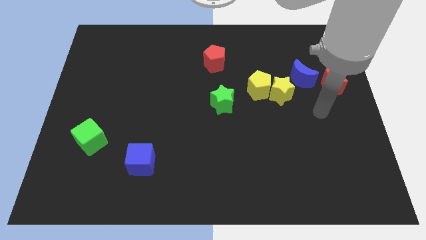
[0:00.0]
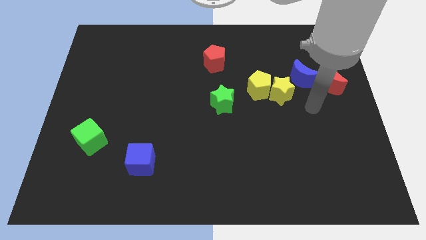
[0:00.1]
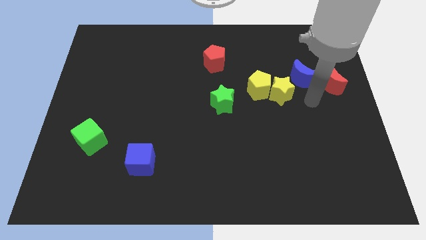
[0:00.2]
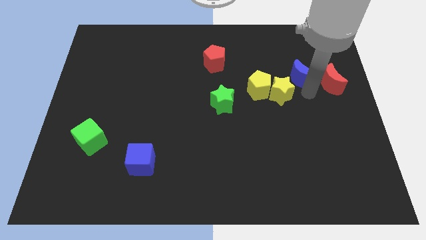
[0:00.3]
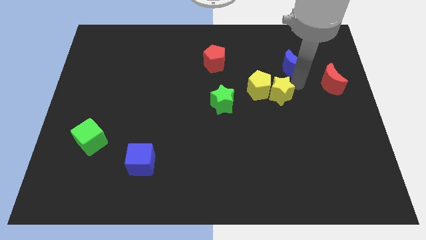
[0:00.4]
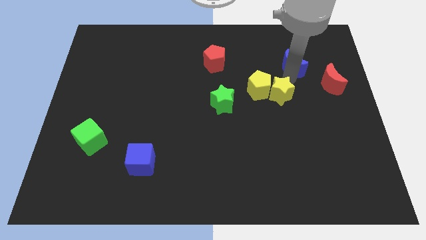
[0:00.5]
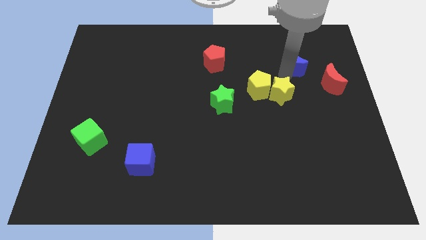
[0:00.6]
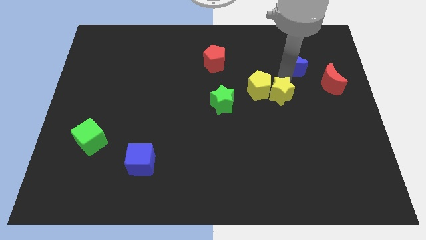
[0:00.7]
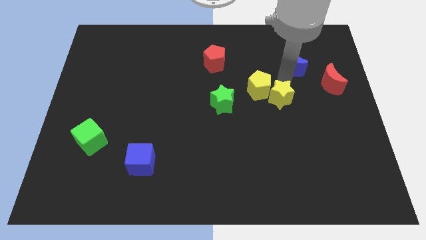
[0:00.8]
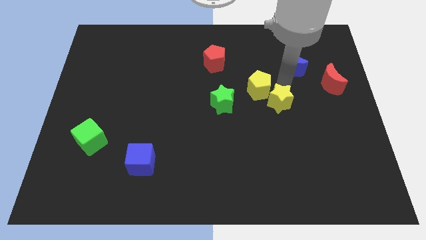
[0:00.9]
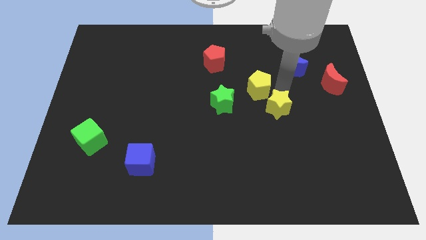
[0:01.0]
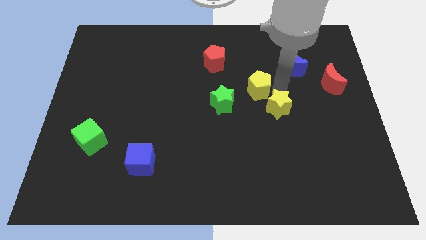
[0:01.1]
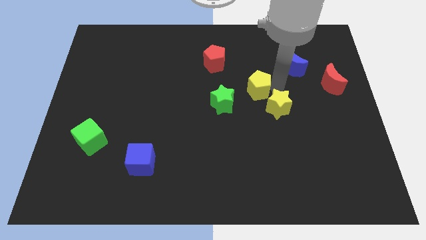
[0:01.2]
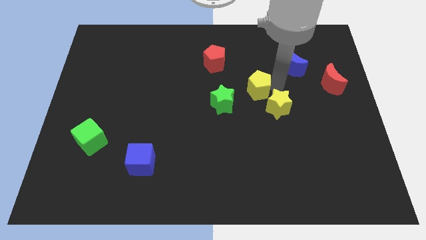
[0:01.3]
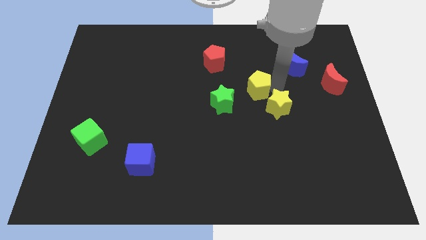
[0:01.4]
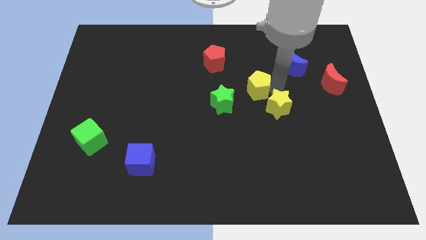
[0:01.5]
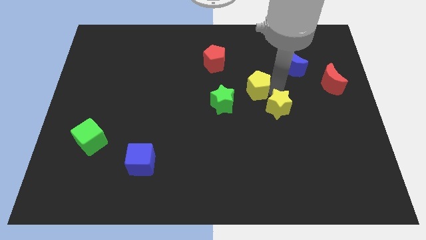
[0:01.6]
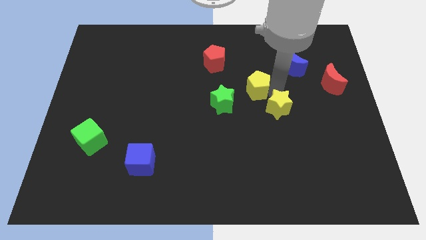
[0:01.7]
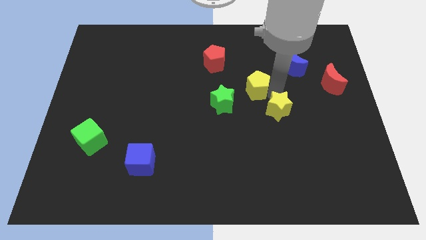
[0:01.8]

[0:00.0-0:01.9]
separate the yellow star from the yellow pentagon and blue moon

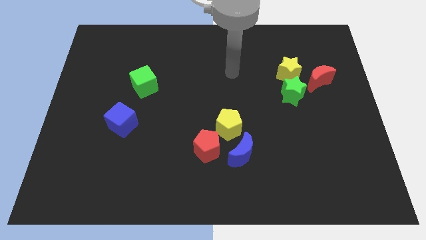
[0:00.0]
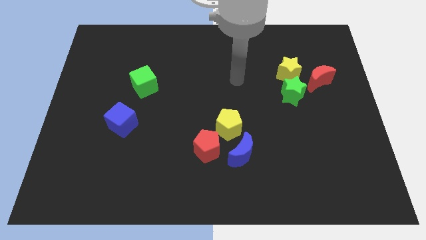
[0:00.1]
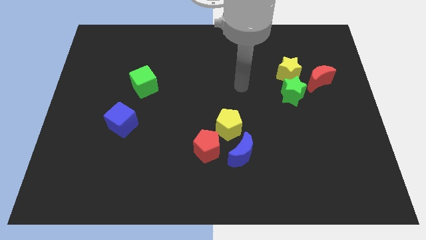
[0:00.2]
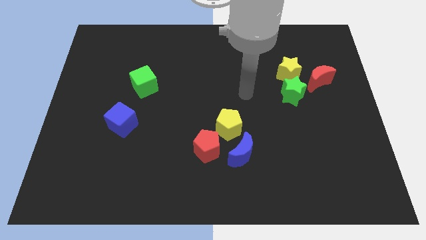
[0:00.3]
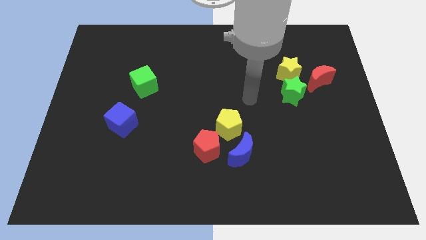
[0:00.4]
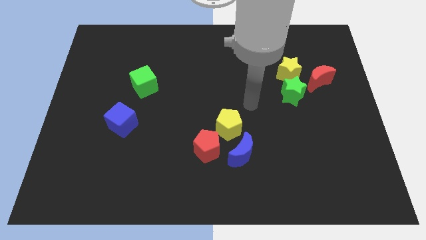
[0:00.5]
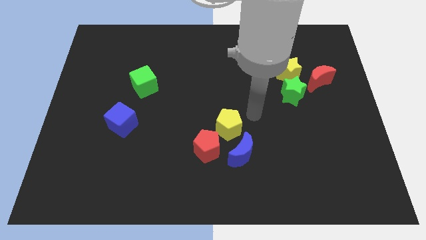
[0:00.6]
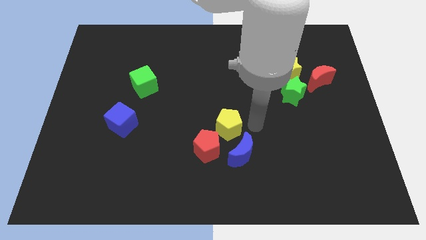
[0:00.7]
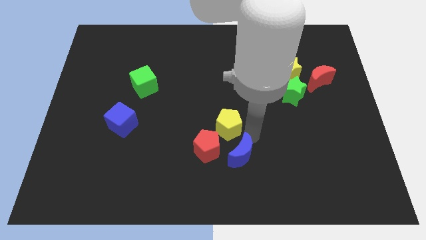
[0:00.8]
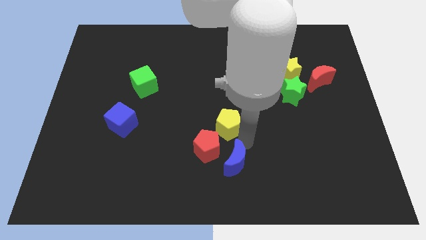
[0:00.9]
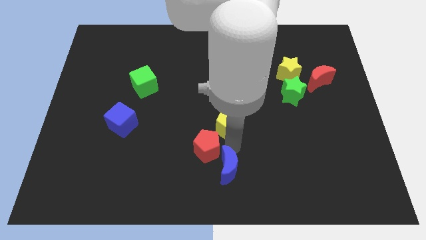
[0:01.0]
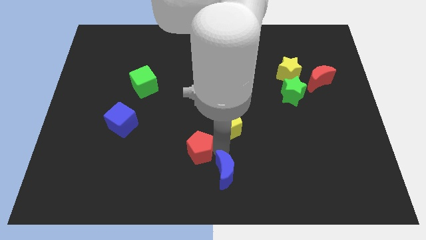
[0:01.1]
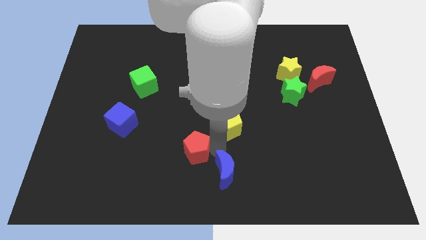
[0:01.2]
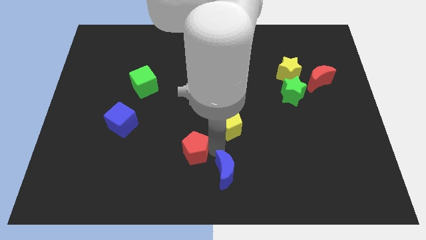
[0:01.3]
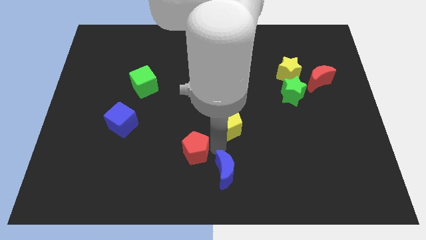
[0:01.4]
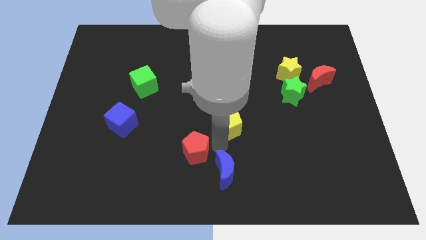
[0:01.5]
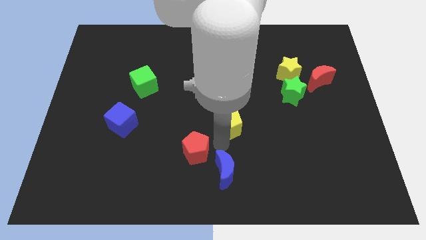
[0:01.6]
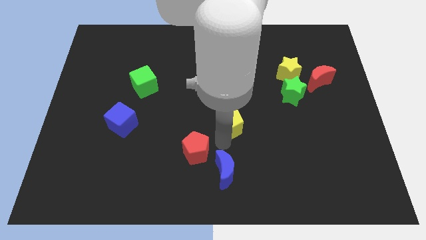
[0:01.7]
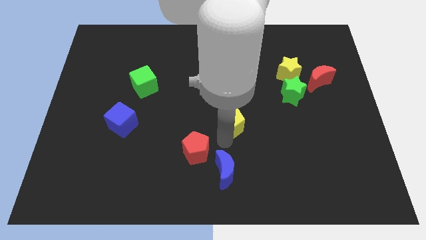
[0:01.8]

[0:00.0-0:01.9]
pull the yellow pentagon apart from the red pentagon and blue moon

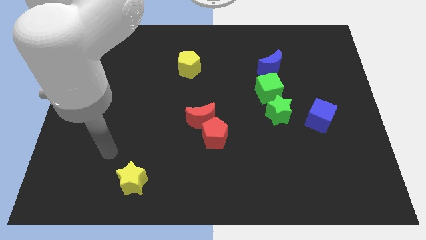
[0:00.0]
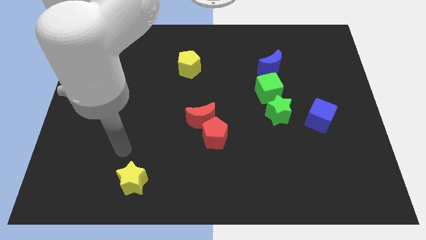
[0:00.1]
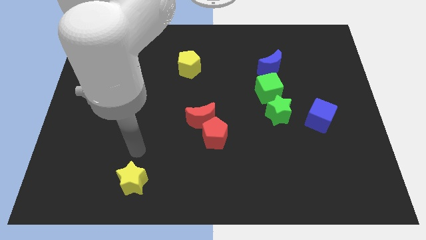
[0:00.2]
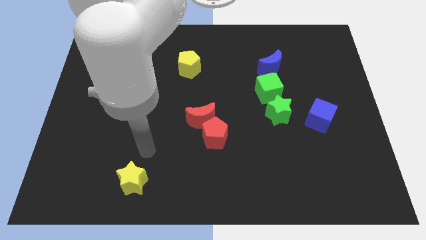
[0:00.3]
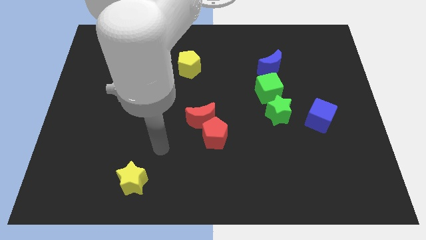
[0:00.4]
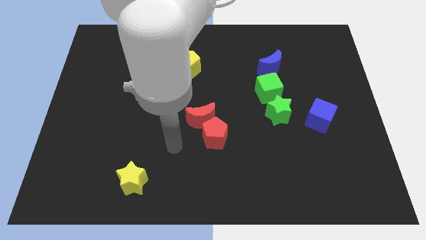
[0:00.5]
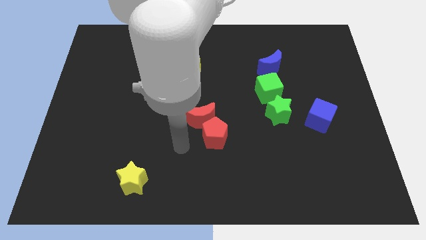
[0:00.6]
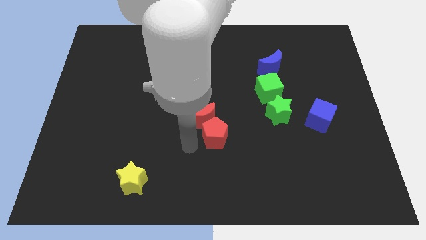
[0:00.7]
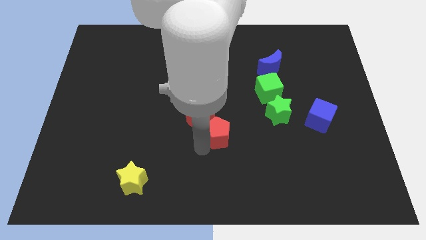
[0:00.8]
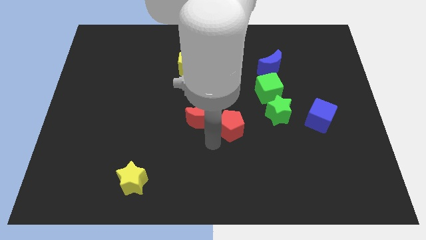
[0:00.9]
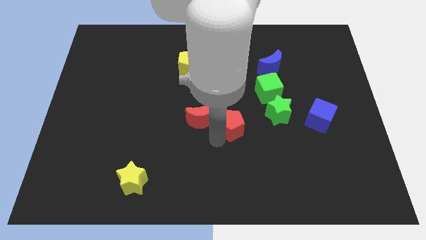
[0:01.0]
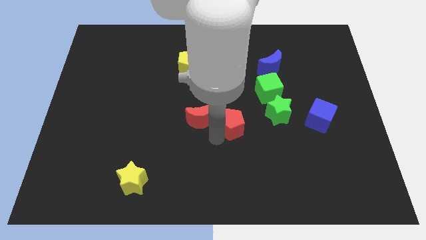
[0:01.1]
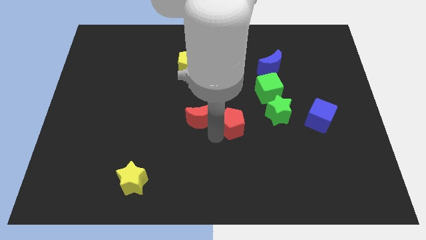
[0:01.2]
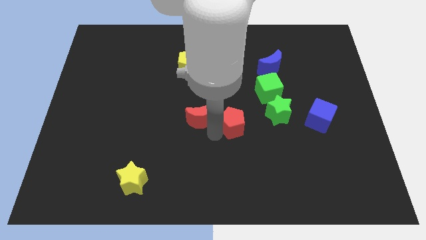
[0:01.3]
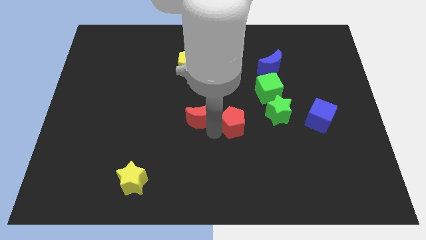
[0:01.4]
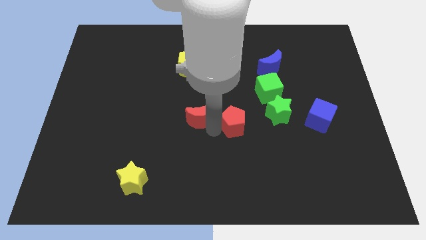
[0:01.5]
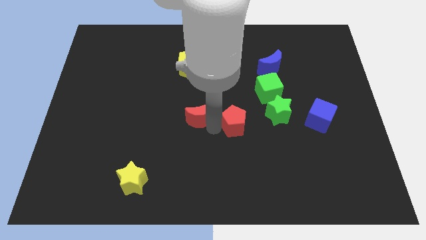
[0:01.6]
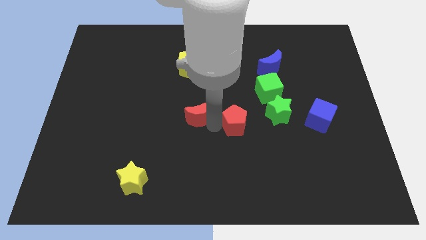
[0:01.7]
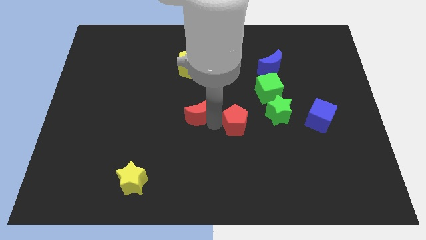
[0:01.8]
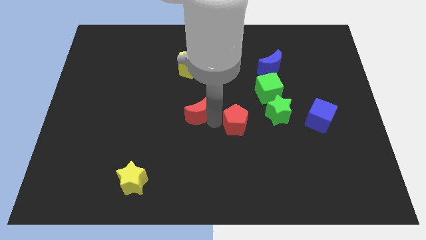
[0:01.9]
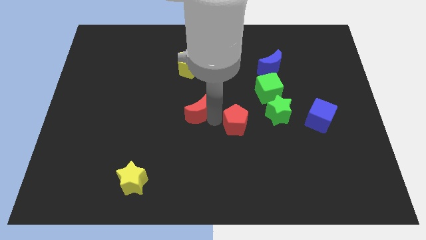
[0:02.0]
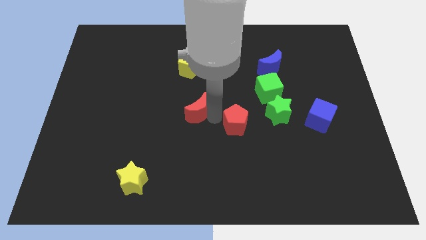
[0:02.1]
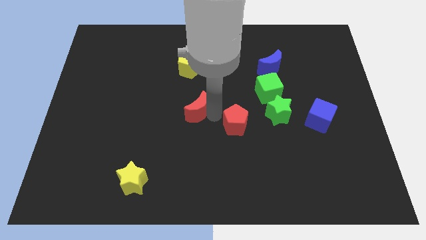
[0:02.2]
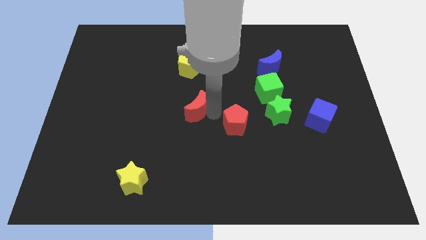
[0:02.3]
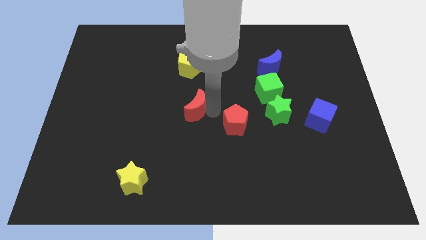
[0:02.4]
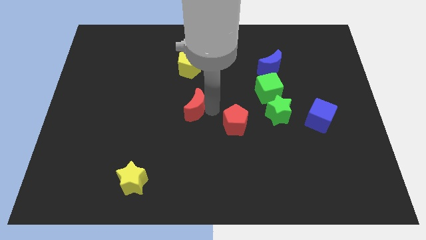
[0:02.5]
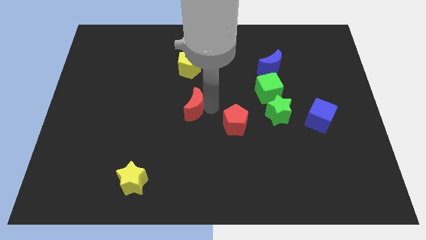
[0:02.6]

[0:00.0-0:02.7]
move the red moon away from the red pentagon

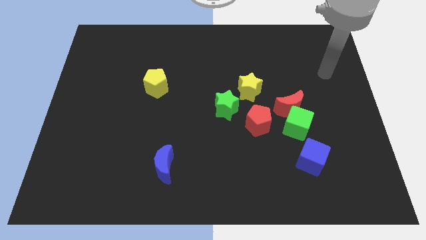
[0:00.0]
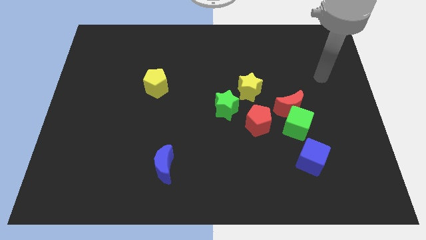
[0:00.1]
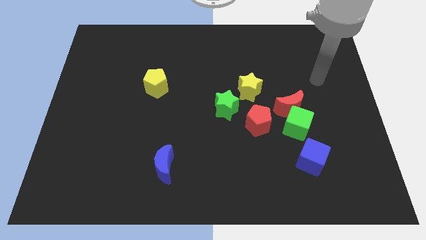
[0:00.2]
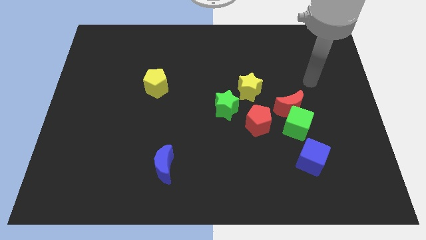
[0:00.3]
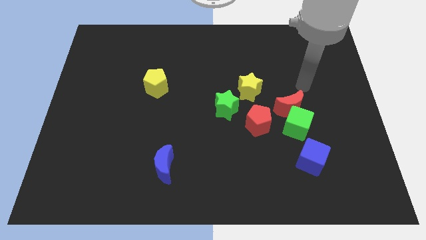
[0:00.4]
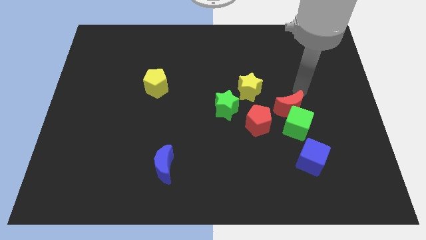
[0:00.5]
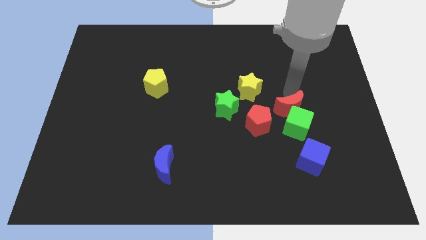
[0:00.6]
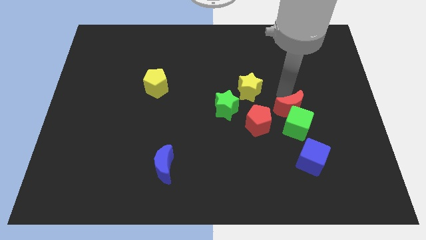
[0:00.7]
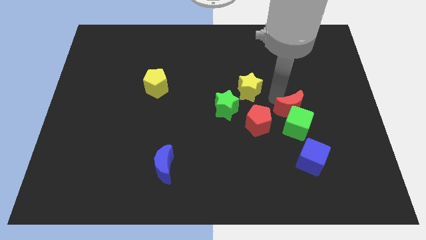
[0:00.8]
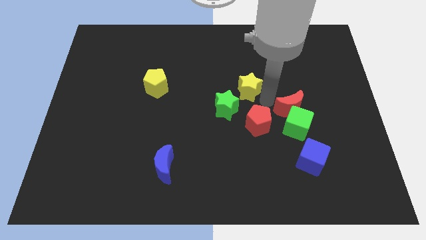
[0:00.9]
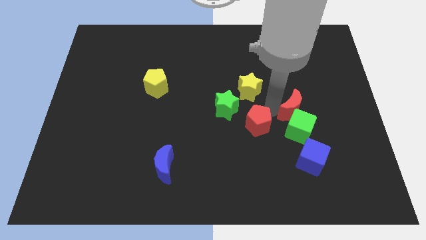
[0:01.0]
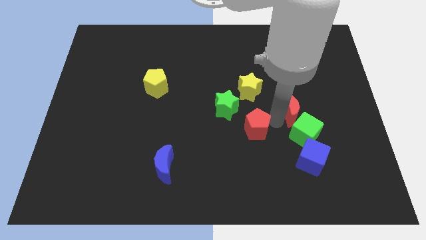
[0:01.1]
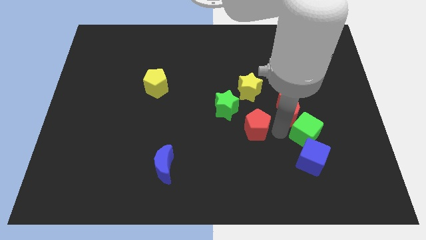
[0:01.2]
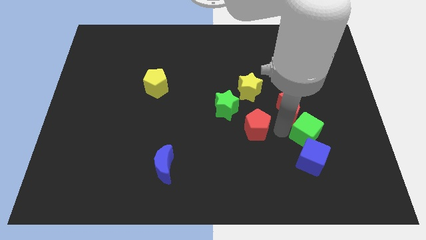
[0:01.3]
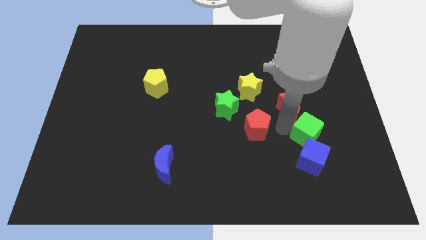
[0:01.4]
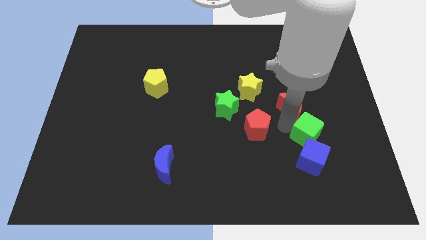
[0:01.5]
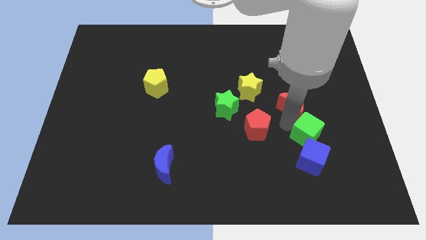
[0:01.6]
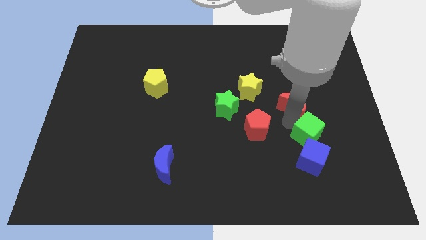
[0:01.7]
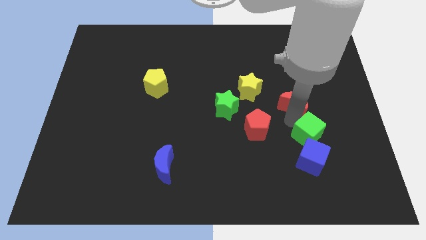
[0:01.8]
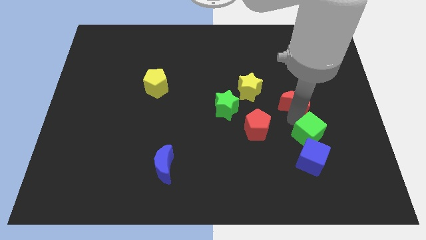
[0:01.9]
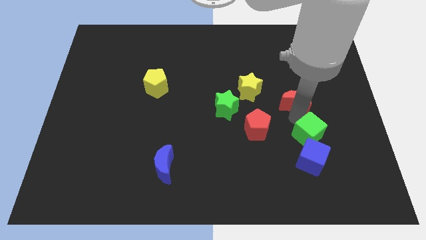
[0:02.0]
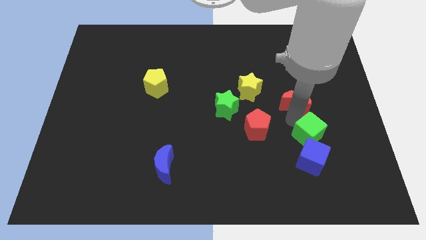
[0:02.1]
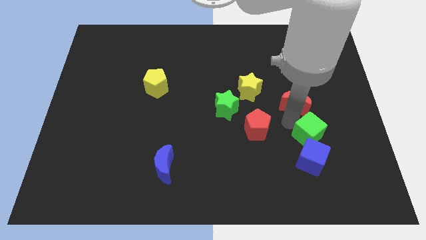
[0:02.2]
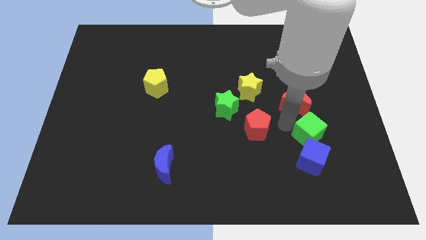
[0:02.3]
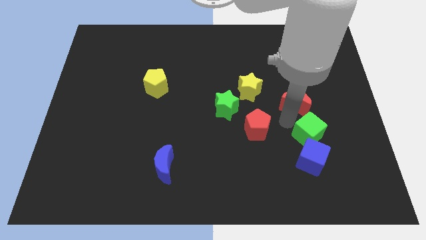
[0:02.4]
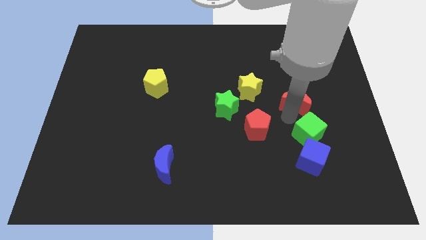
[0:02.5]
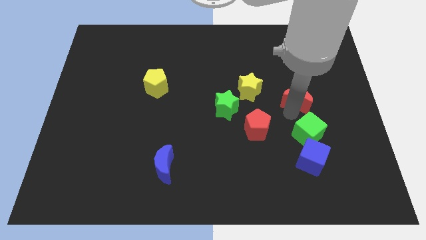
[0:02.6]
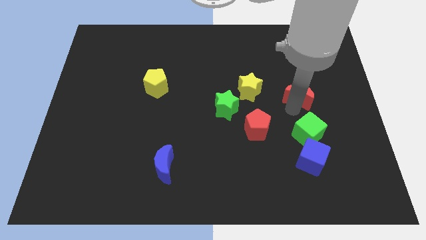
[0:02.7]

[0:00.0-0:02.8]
move the red moon away from the green cube and red pentagon

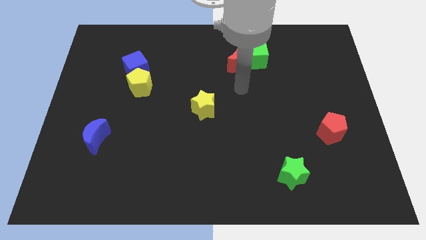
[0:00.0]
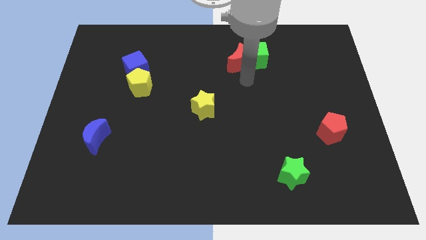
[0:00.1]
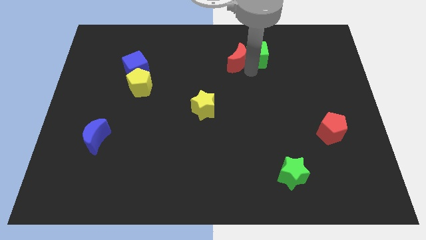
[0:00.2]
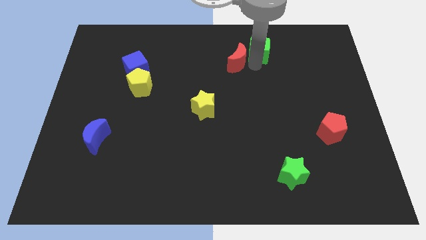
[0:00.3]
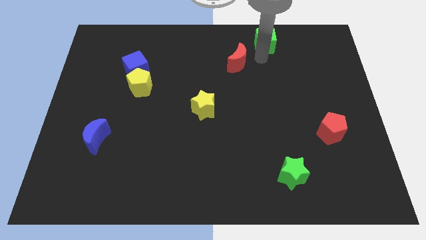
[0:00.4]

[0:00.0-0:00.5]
separate the red moon from the green cube
